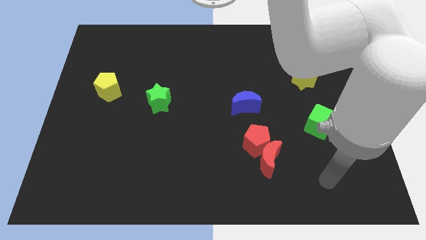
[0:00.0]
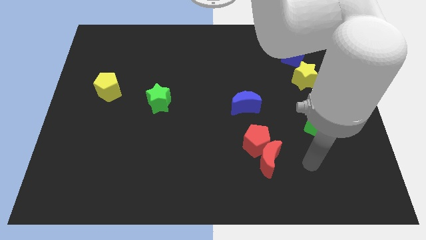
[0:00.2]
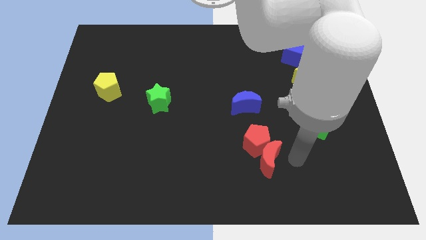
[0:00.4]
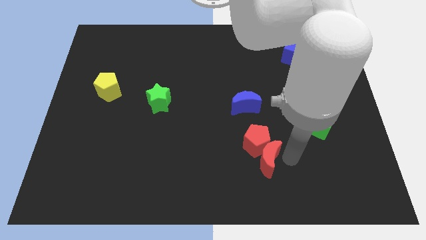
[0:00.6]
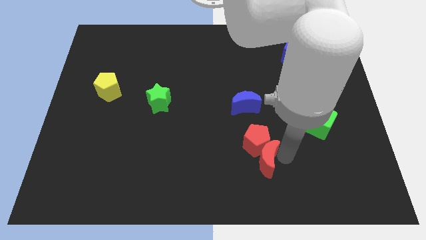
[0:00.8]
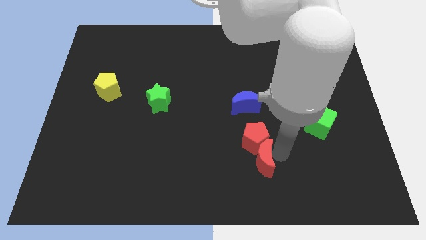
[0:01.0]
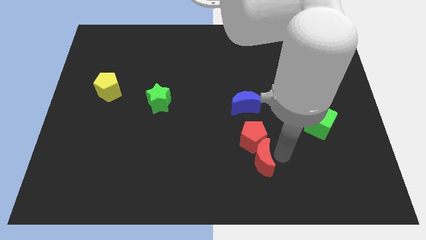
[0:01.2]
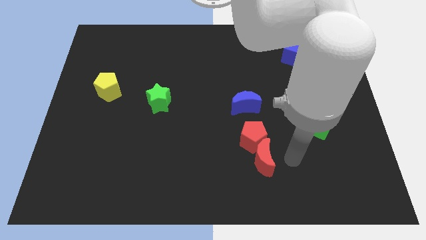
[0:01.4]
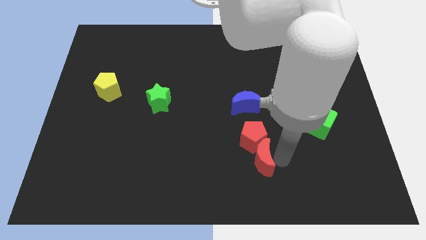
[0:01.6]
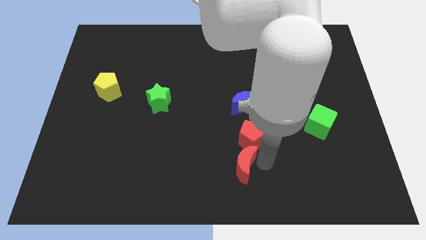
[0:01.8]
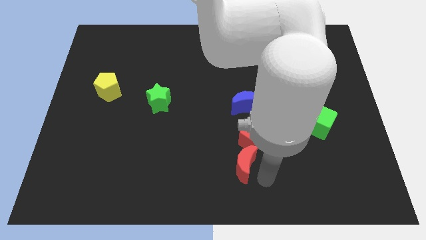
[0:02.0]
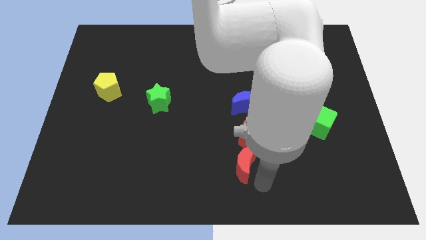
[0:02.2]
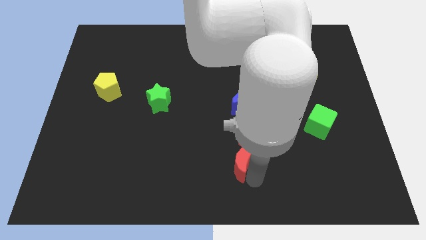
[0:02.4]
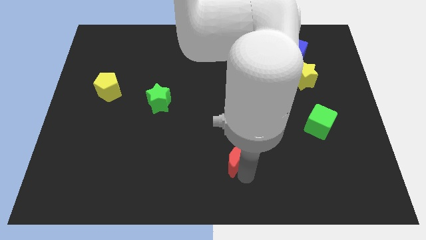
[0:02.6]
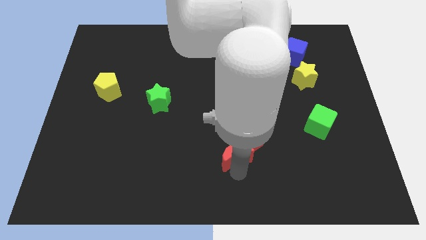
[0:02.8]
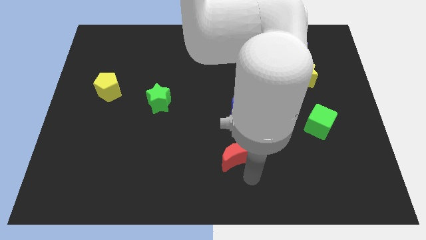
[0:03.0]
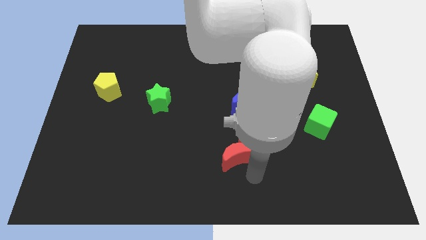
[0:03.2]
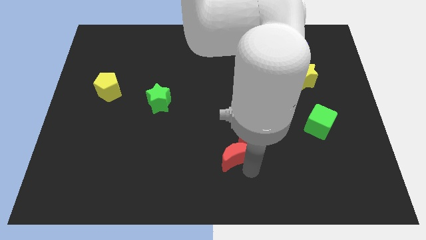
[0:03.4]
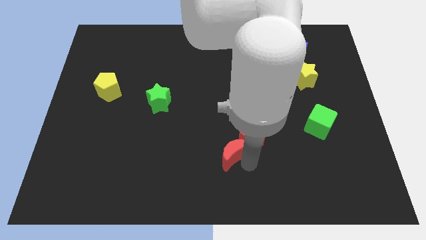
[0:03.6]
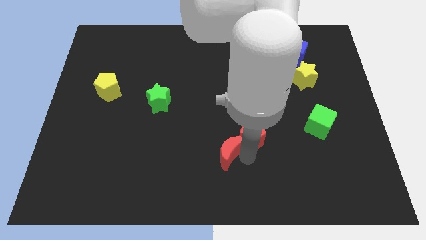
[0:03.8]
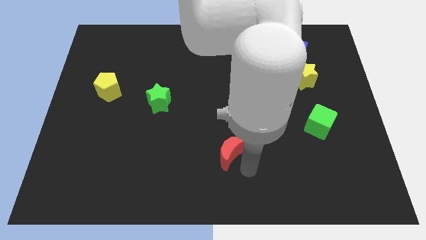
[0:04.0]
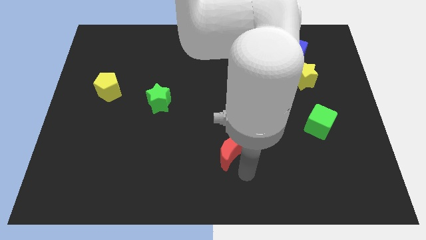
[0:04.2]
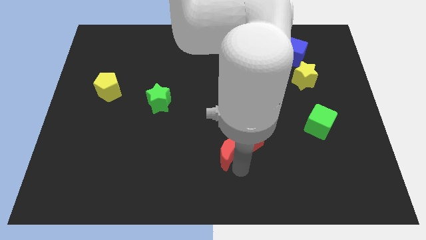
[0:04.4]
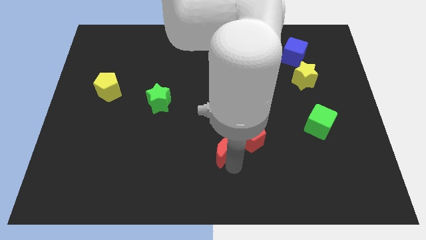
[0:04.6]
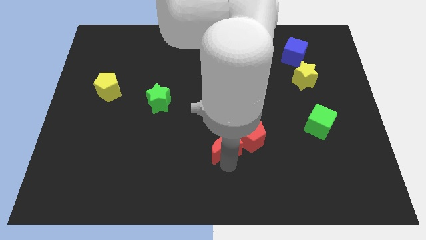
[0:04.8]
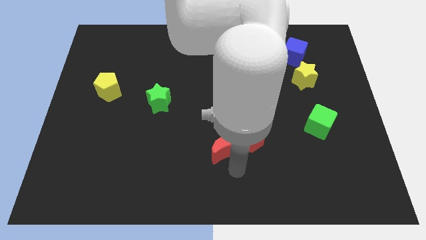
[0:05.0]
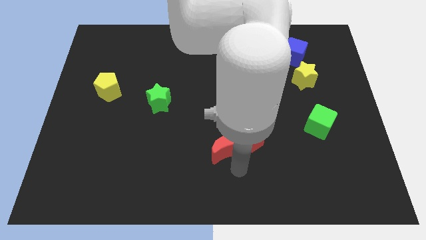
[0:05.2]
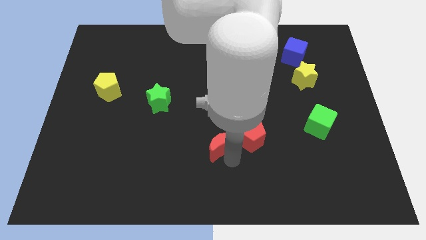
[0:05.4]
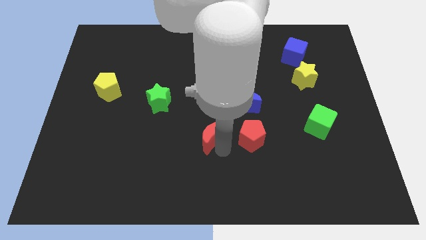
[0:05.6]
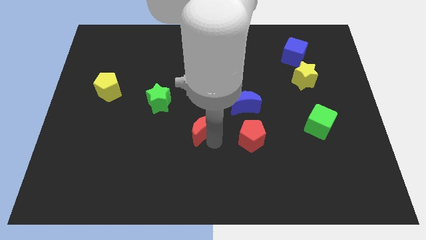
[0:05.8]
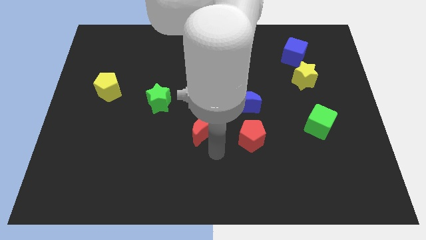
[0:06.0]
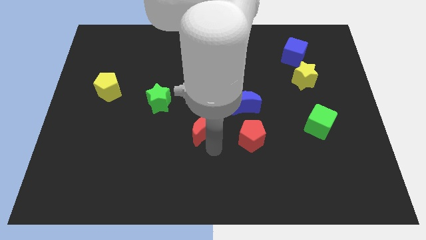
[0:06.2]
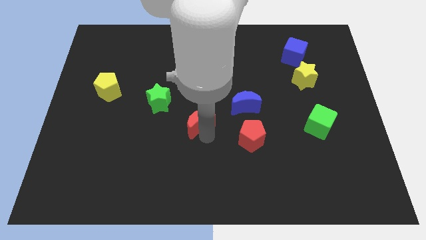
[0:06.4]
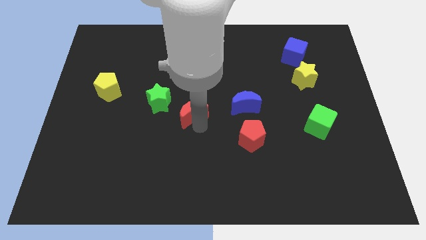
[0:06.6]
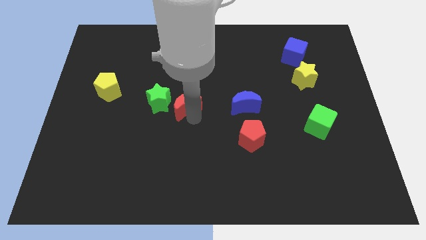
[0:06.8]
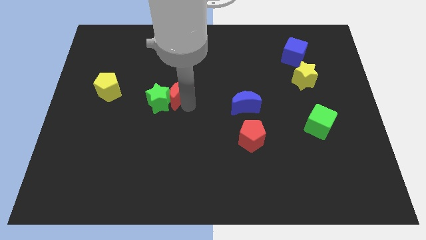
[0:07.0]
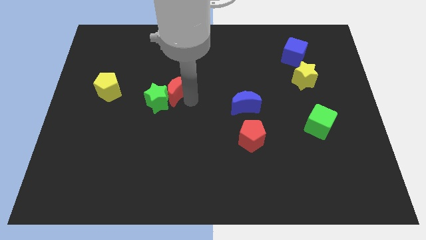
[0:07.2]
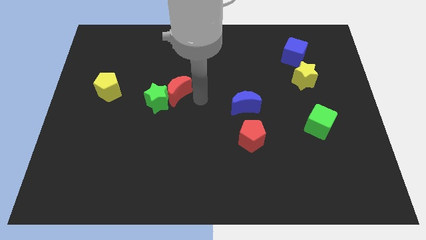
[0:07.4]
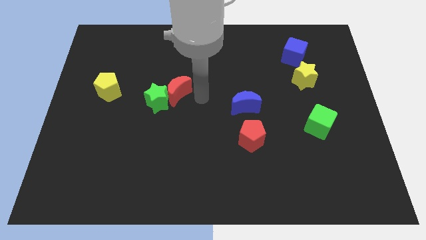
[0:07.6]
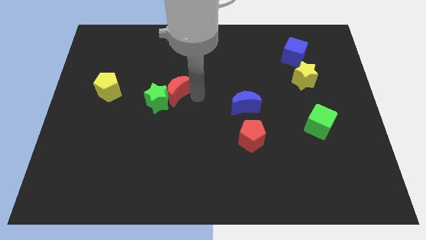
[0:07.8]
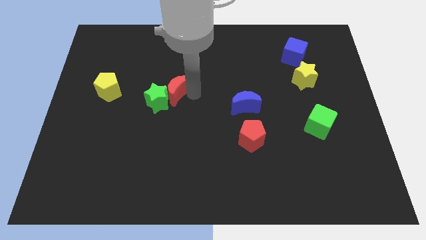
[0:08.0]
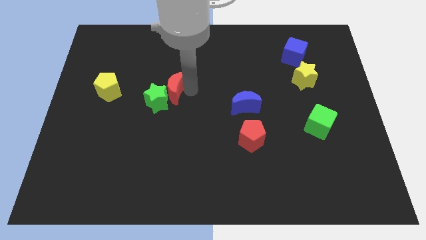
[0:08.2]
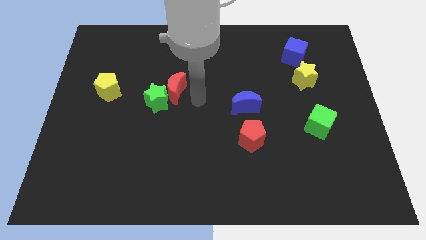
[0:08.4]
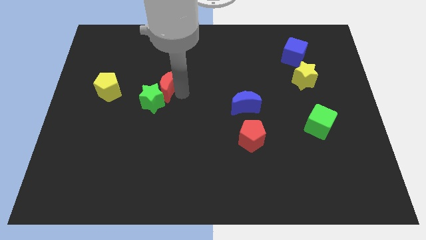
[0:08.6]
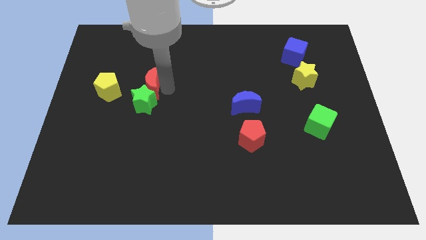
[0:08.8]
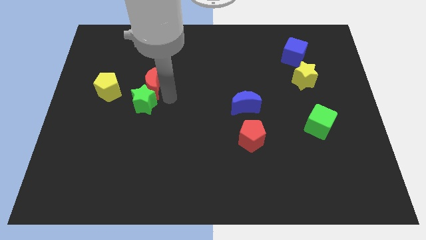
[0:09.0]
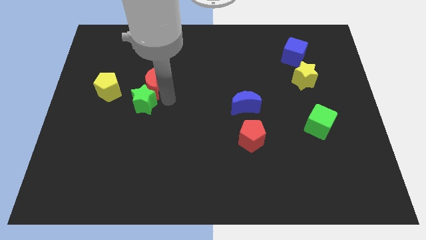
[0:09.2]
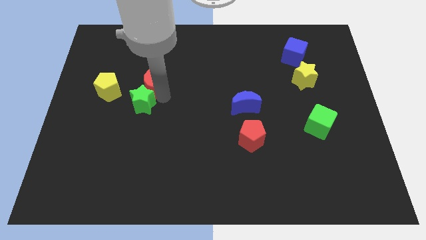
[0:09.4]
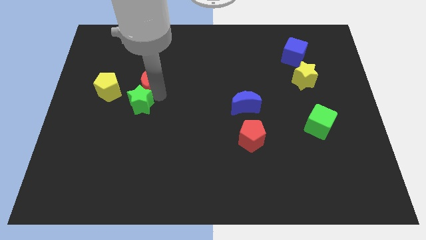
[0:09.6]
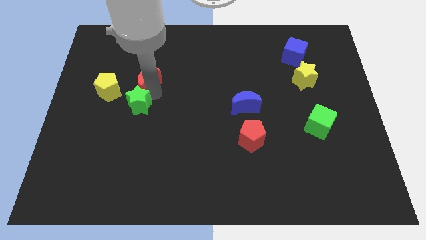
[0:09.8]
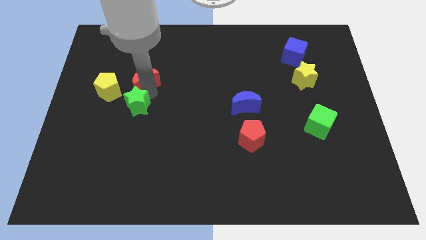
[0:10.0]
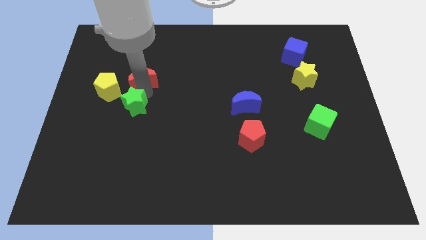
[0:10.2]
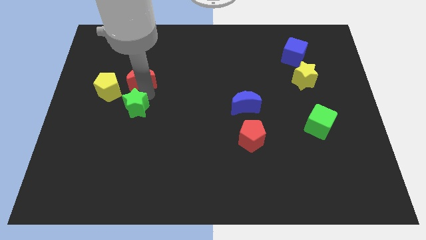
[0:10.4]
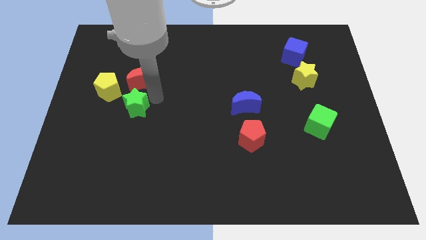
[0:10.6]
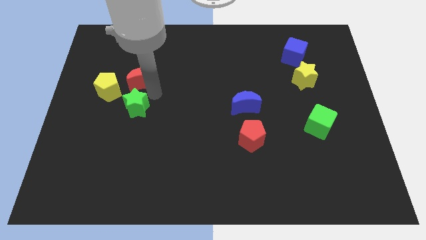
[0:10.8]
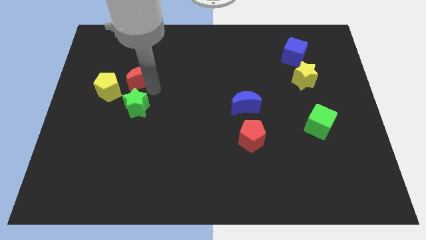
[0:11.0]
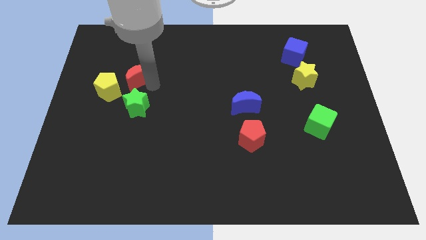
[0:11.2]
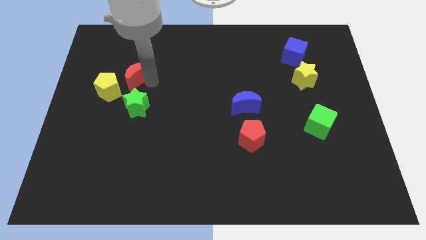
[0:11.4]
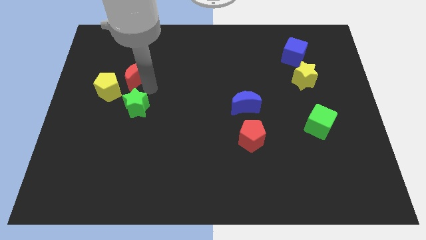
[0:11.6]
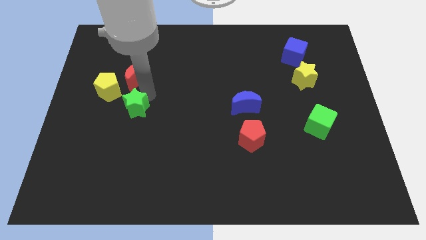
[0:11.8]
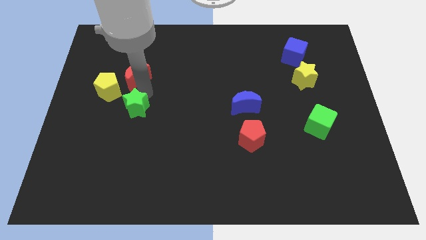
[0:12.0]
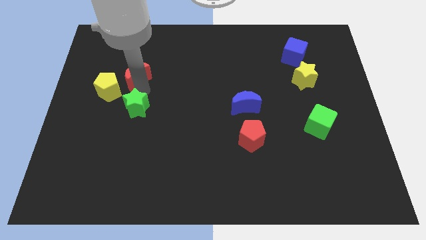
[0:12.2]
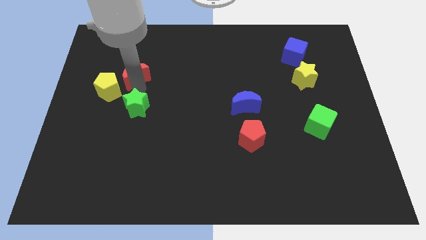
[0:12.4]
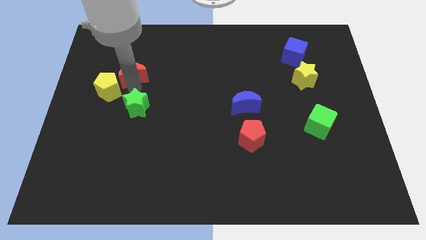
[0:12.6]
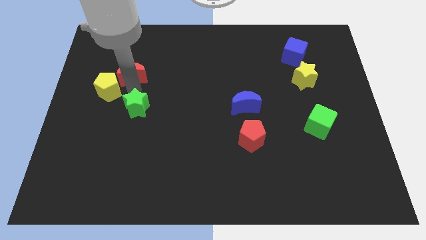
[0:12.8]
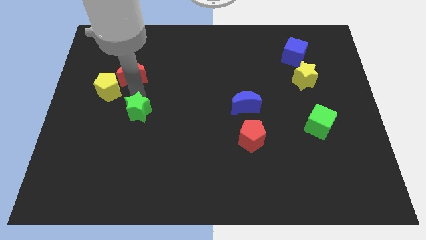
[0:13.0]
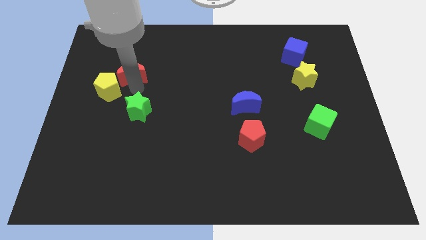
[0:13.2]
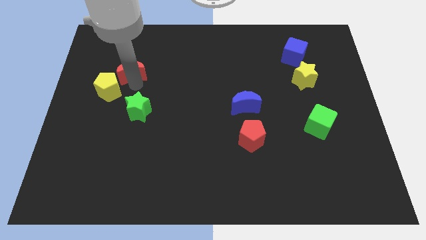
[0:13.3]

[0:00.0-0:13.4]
push the red moon to the top side of the yellow pentagon

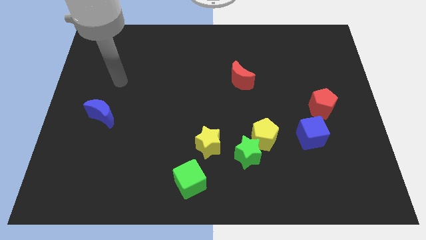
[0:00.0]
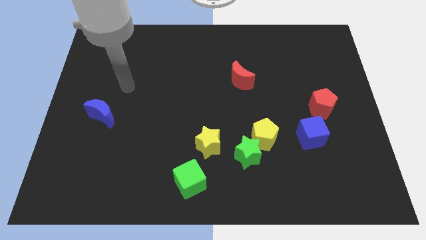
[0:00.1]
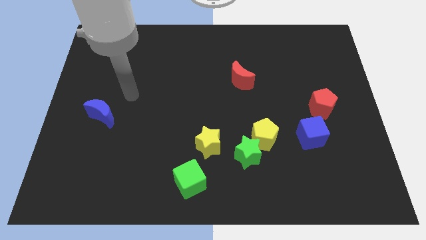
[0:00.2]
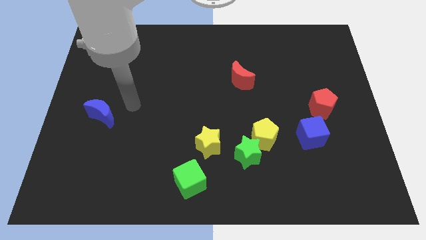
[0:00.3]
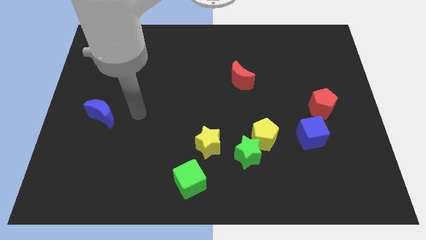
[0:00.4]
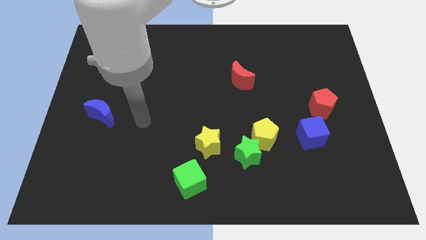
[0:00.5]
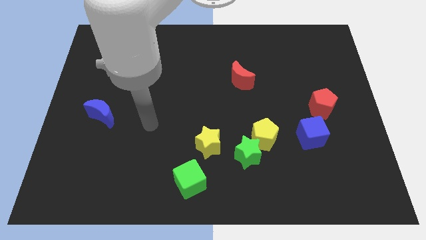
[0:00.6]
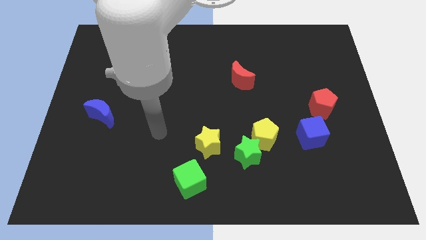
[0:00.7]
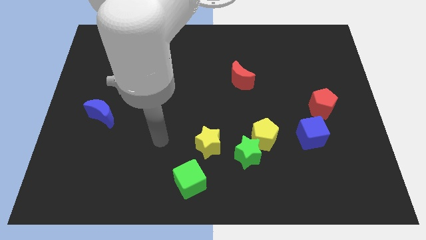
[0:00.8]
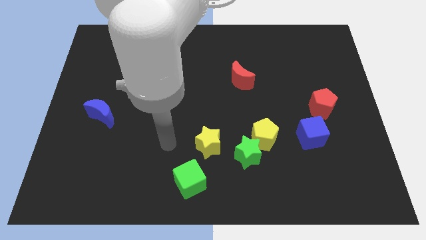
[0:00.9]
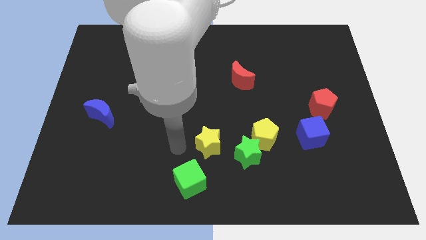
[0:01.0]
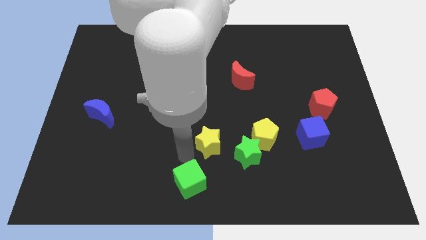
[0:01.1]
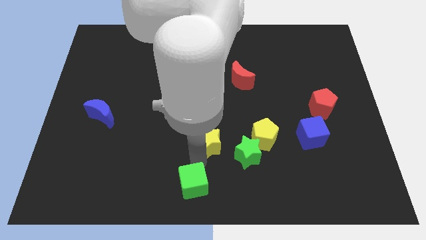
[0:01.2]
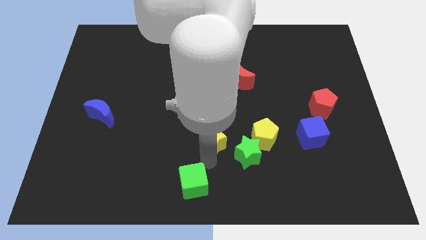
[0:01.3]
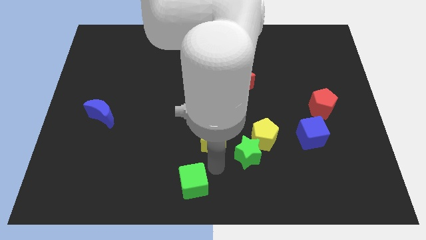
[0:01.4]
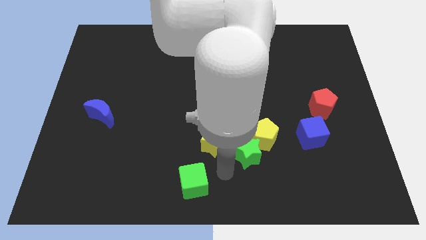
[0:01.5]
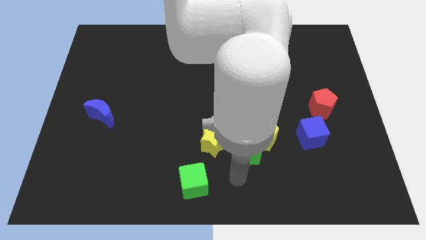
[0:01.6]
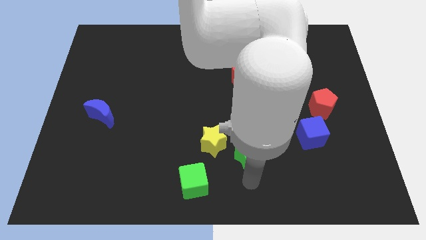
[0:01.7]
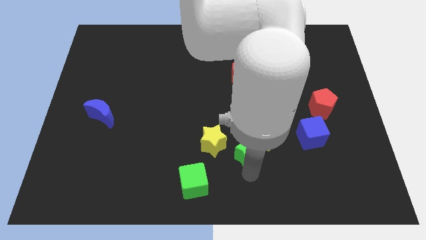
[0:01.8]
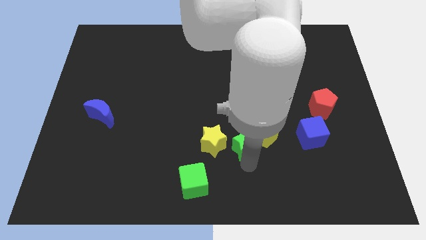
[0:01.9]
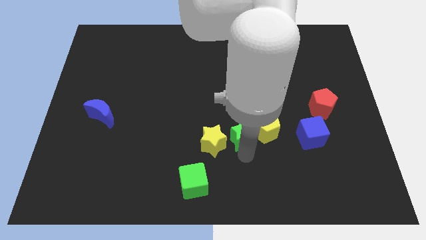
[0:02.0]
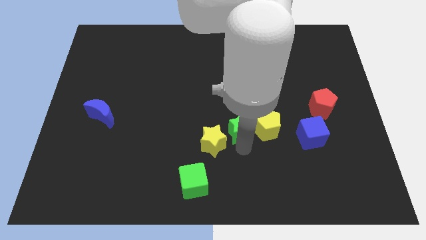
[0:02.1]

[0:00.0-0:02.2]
slide the green star diagonally up and to the left of the yellow pentagon
